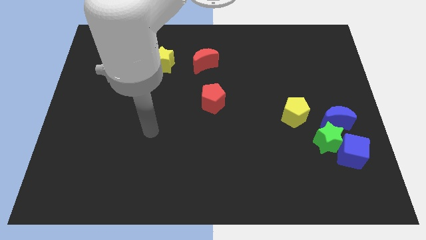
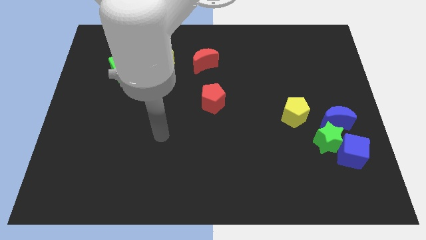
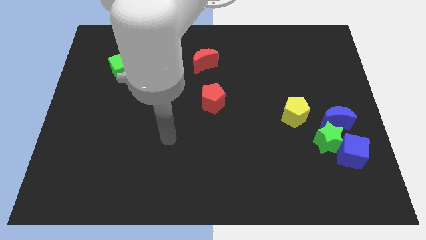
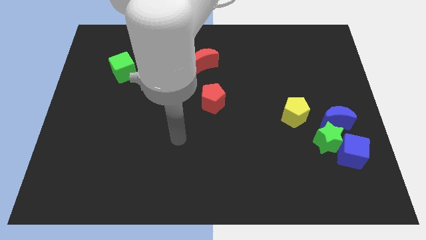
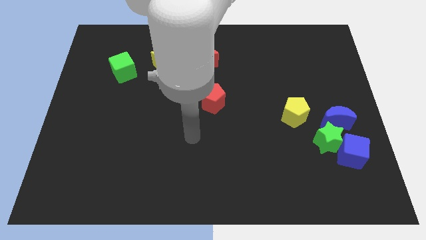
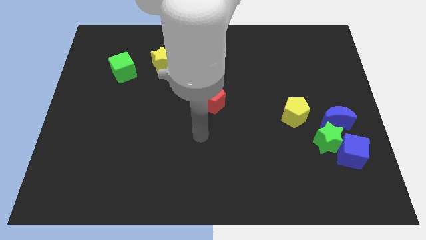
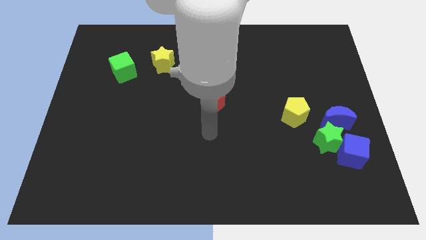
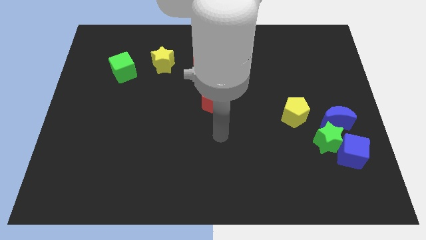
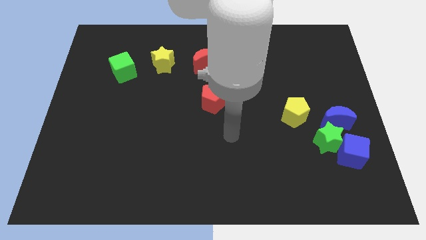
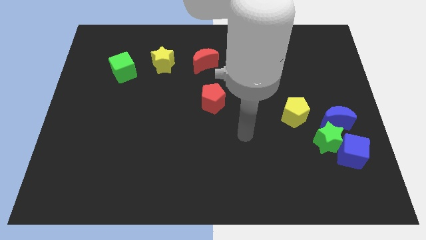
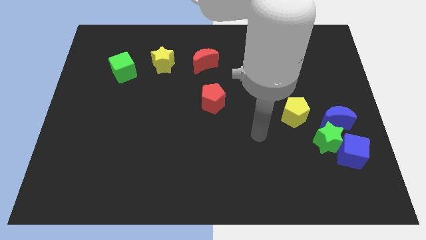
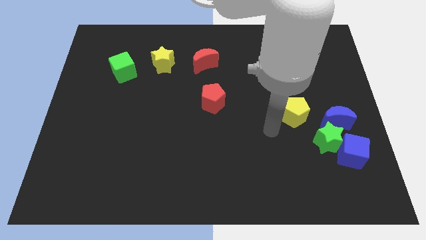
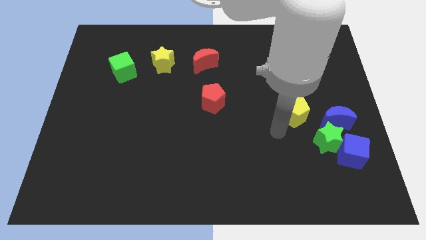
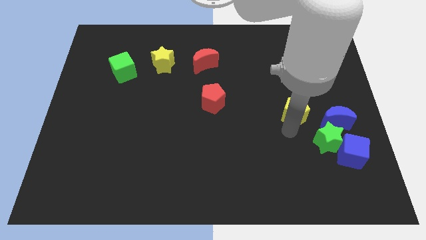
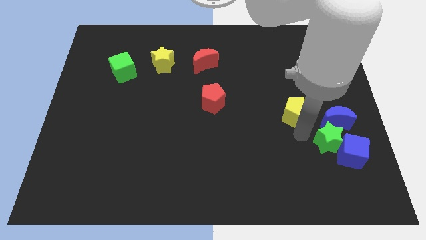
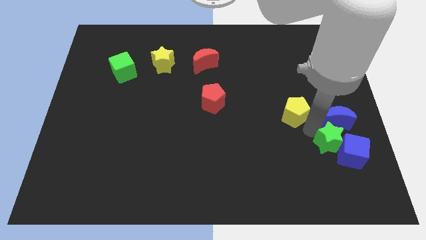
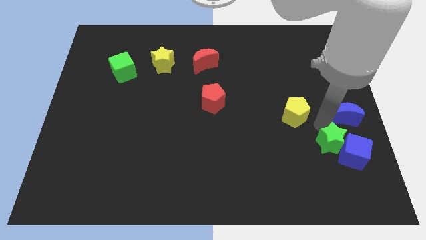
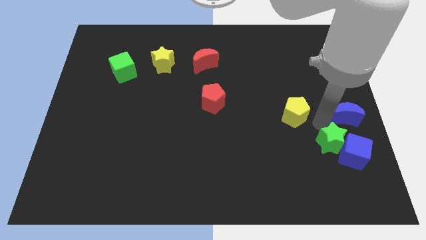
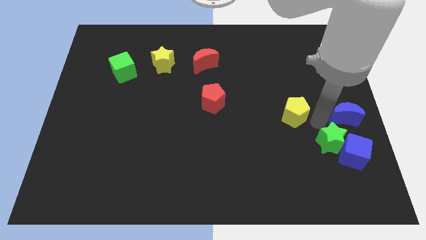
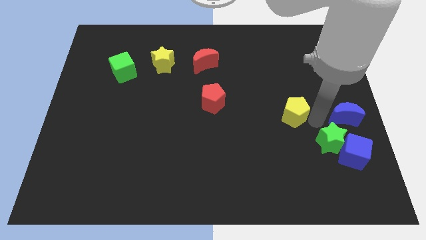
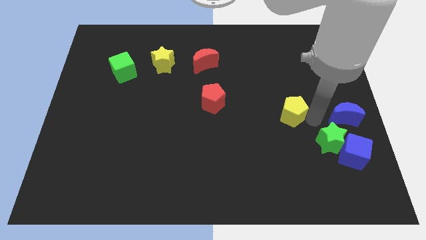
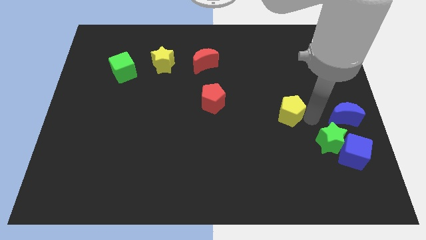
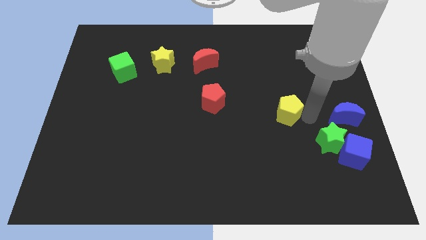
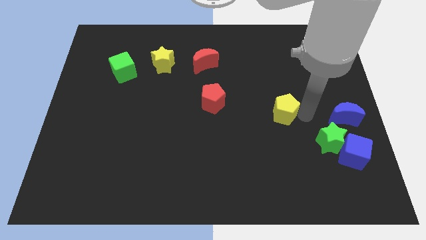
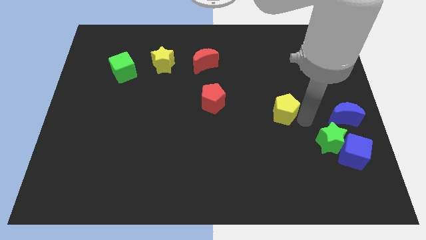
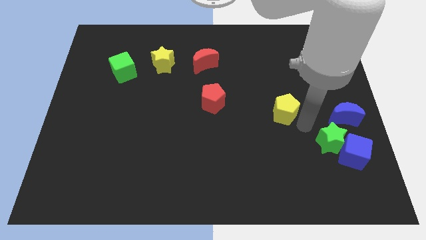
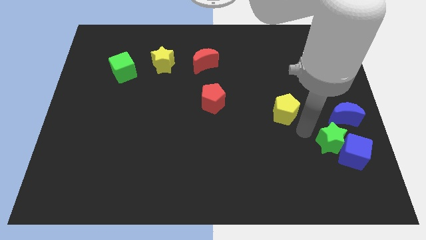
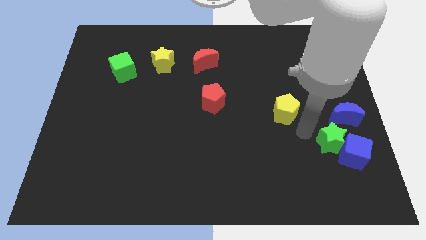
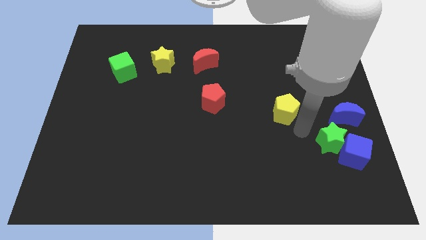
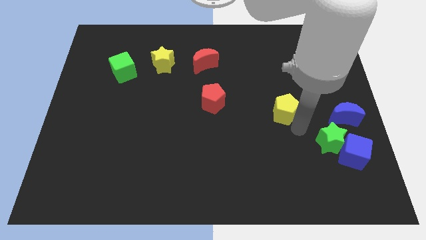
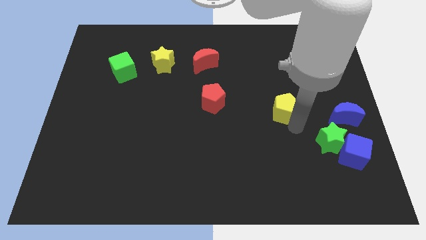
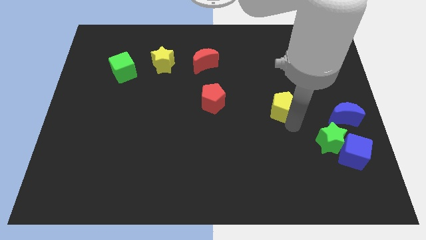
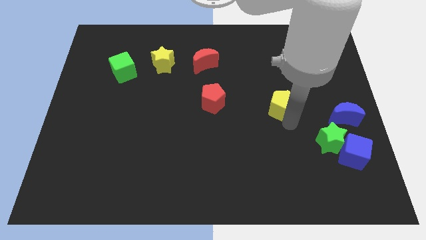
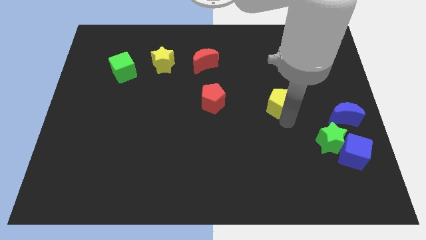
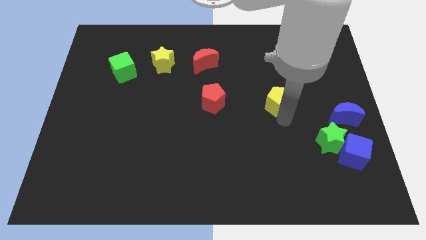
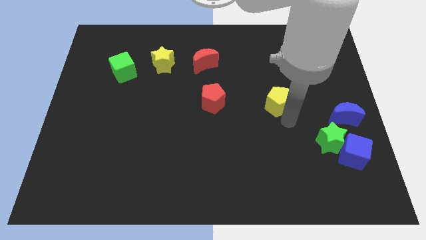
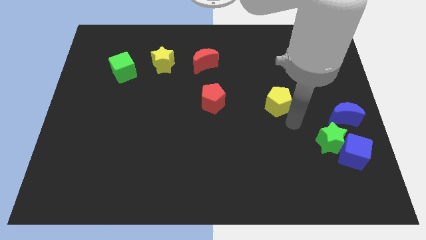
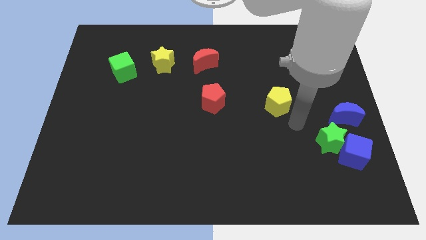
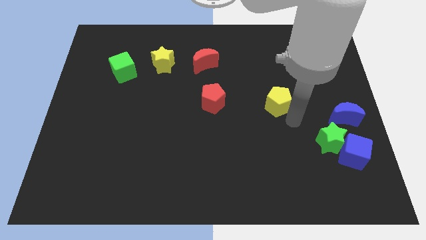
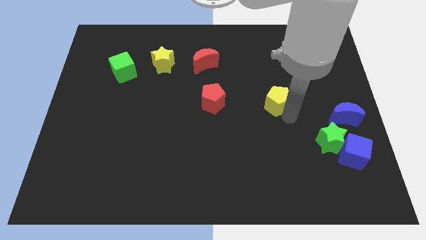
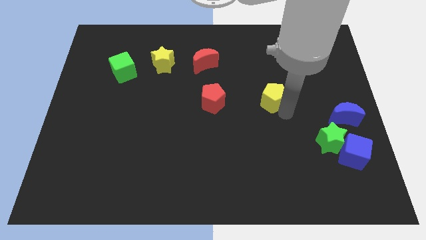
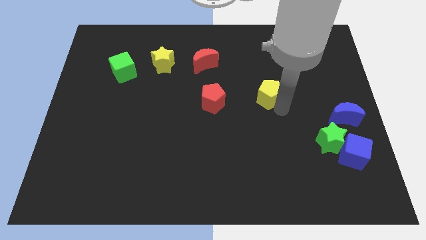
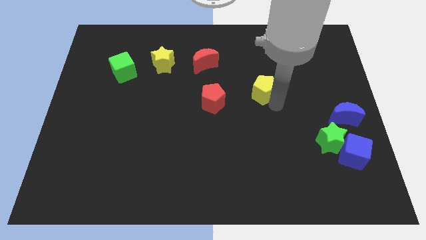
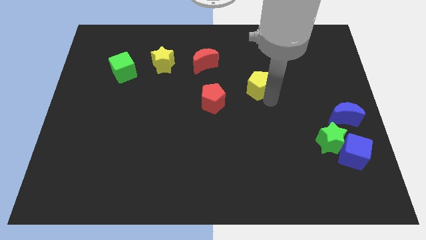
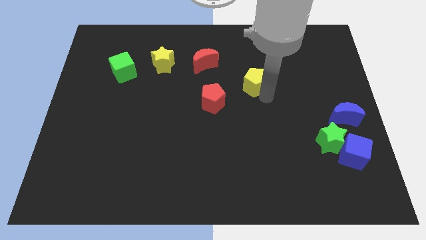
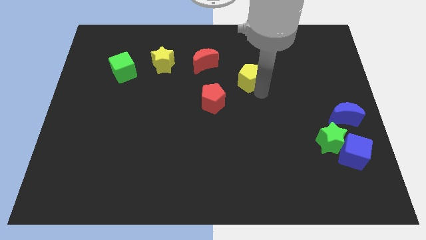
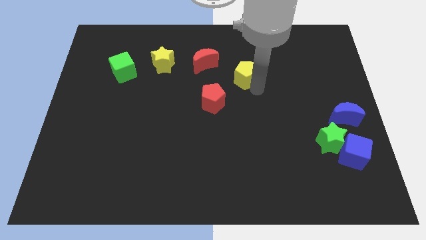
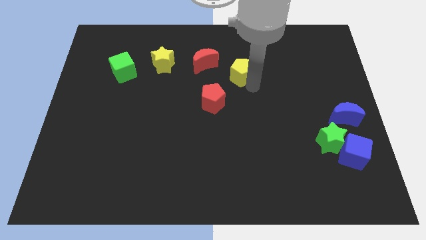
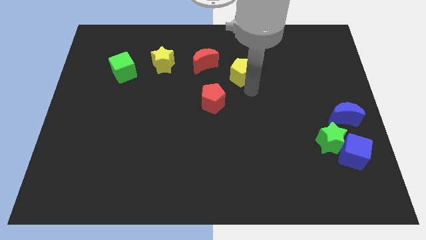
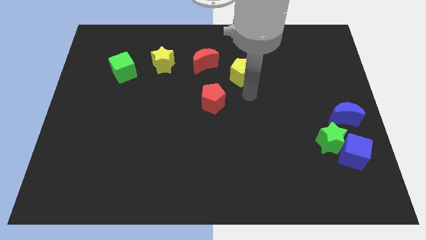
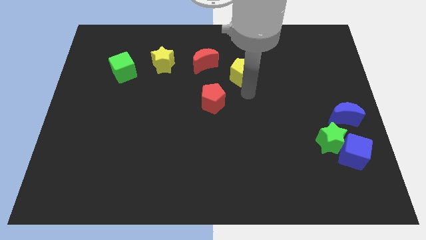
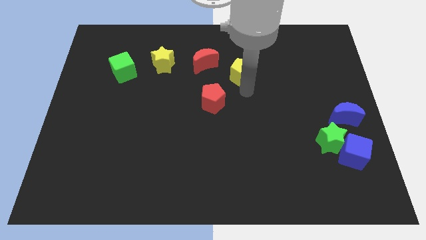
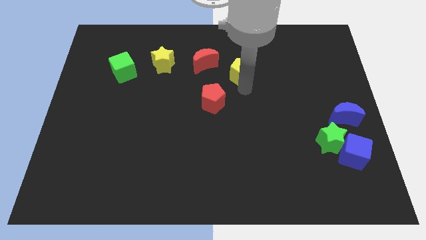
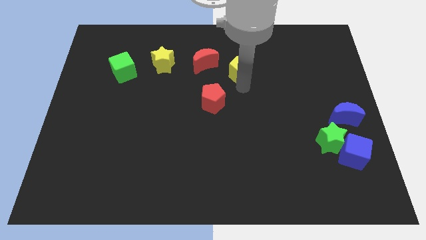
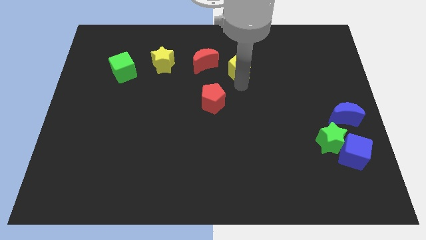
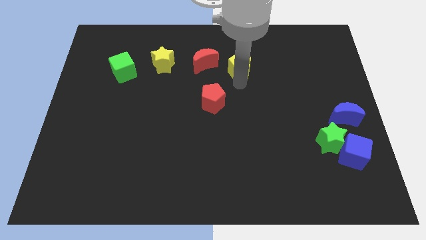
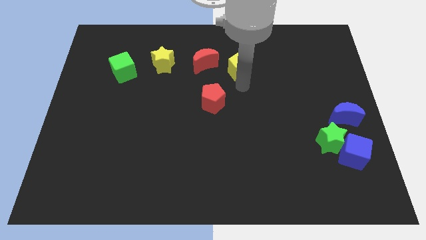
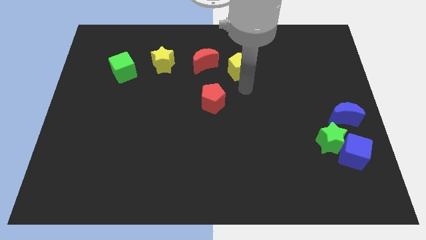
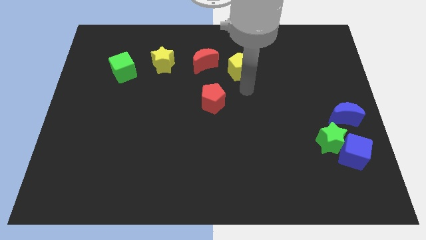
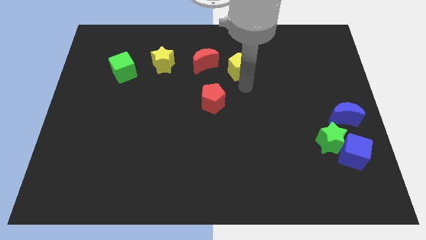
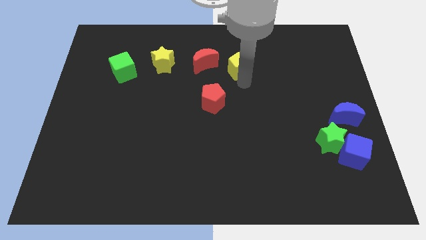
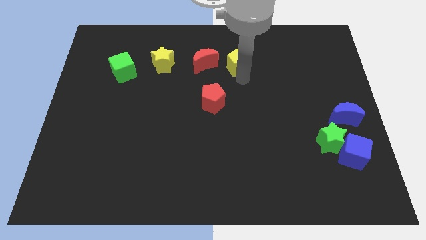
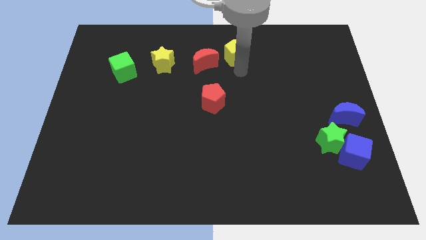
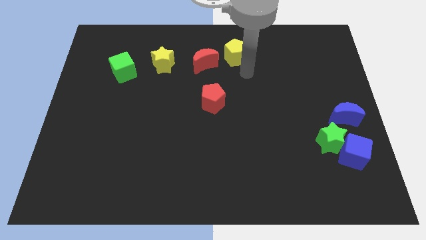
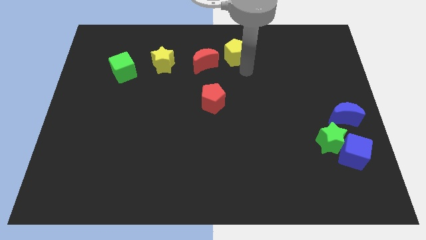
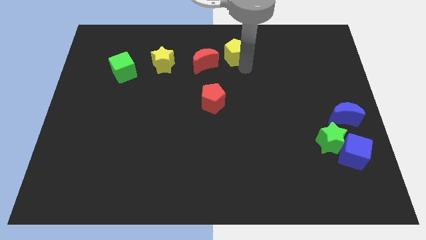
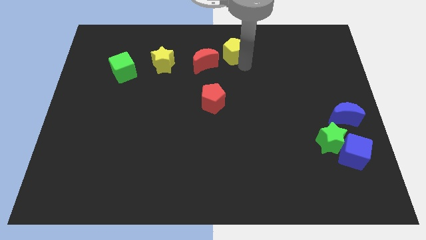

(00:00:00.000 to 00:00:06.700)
put the yellow pentagon to the towards your base
